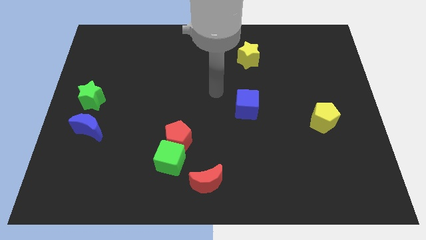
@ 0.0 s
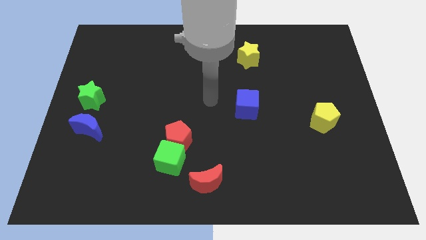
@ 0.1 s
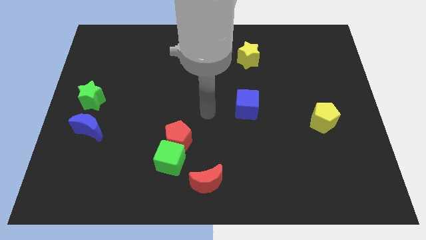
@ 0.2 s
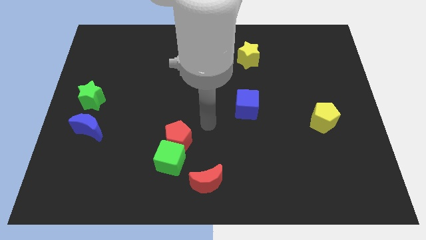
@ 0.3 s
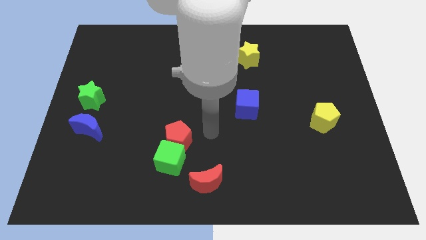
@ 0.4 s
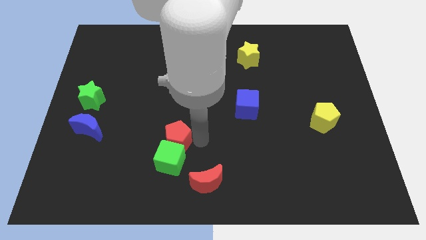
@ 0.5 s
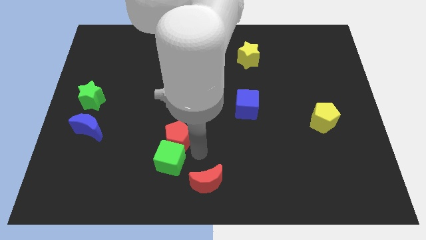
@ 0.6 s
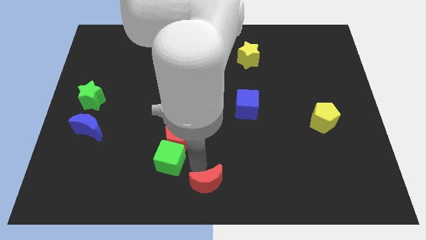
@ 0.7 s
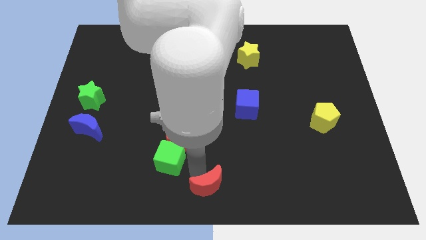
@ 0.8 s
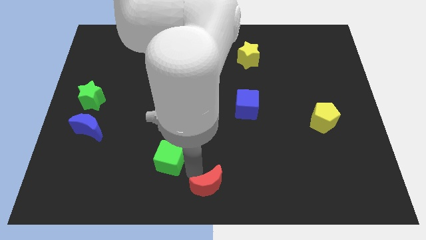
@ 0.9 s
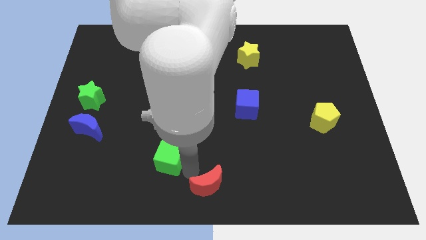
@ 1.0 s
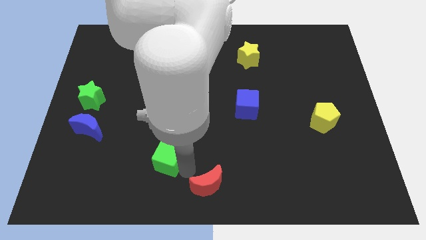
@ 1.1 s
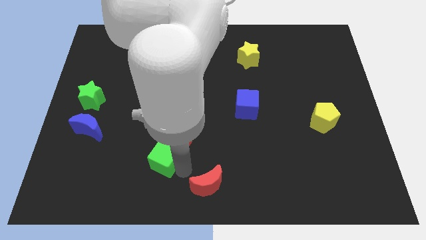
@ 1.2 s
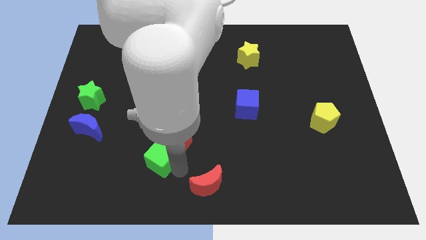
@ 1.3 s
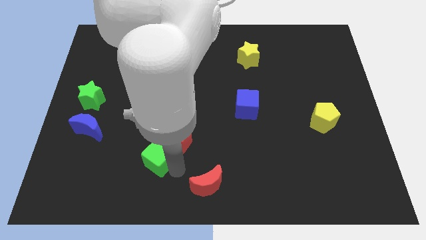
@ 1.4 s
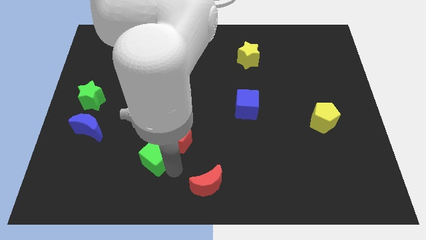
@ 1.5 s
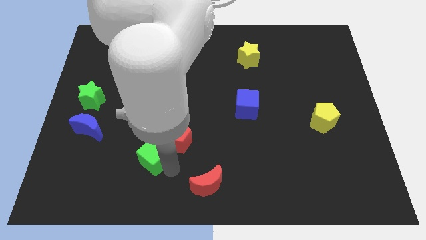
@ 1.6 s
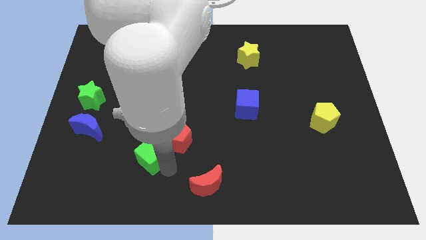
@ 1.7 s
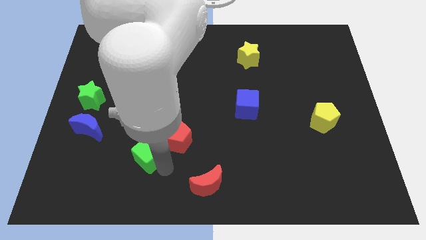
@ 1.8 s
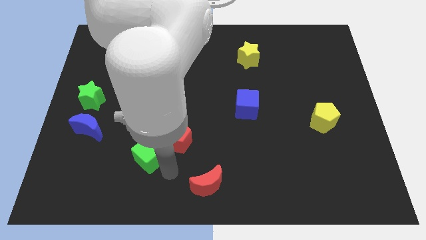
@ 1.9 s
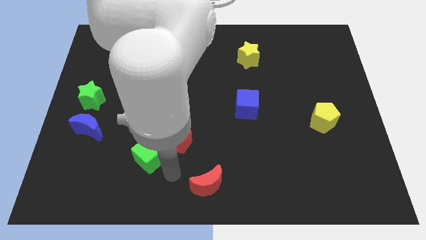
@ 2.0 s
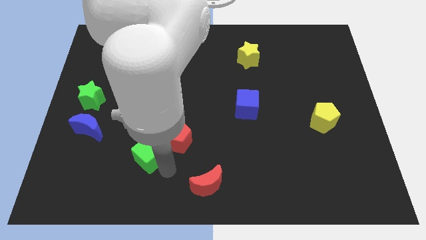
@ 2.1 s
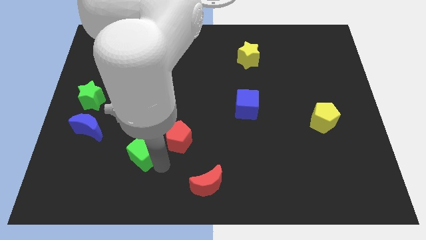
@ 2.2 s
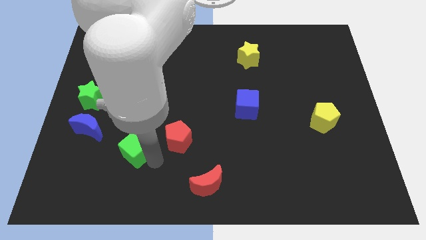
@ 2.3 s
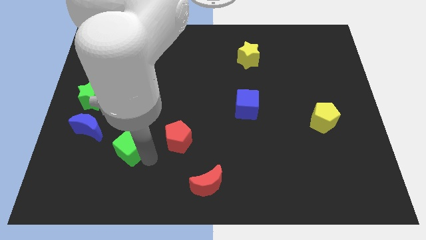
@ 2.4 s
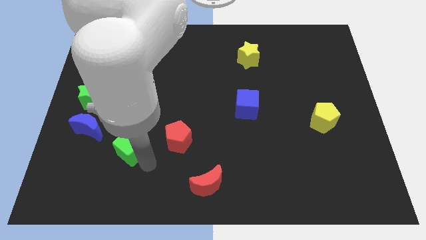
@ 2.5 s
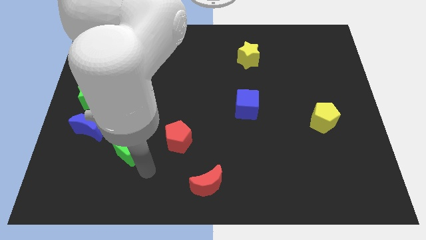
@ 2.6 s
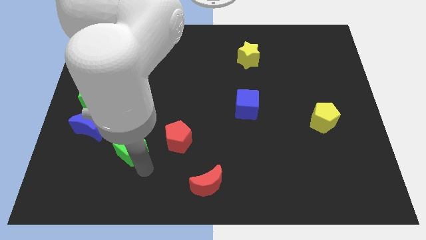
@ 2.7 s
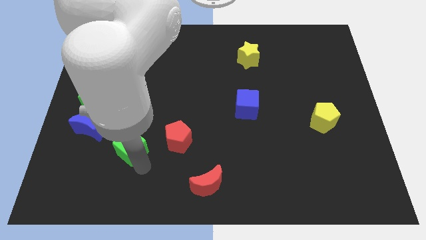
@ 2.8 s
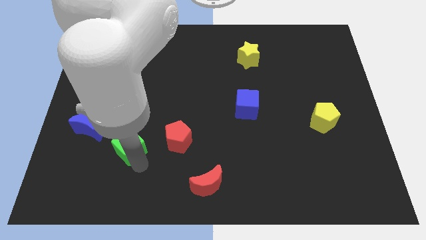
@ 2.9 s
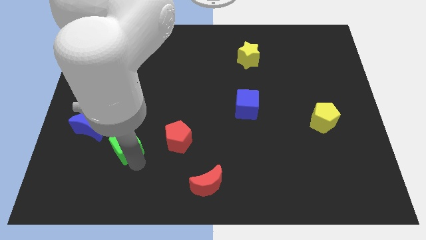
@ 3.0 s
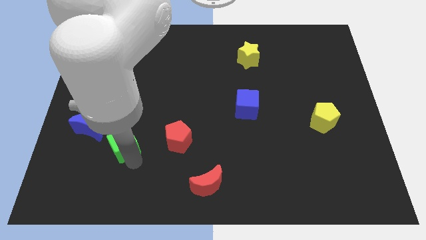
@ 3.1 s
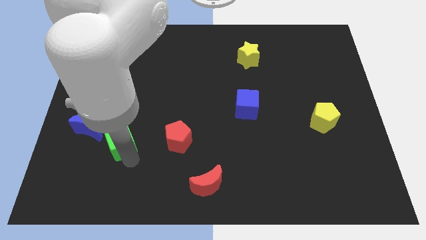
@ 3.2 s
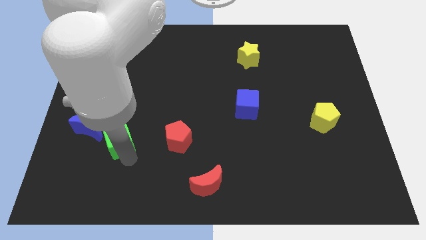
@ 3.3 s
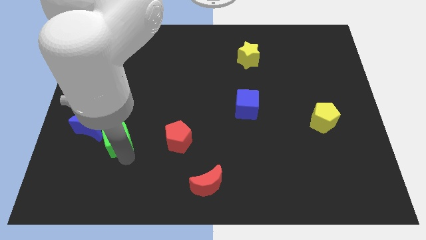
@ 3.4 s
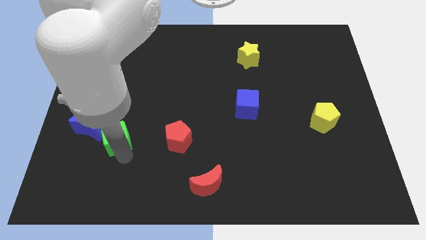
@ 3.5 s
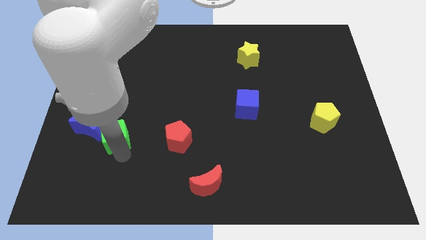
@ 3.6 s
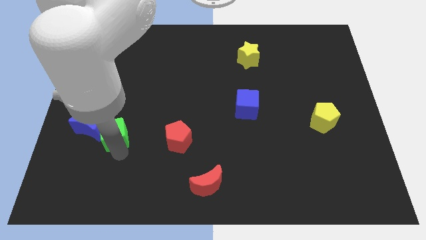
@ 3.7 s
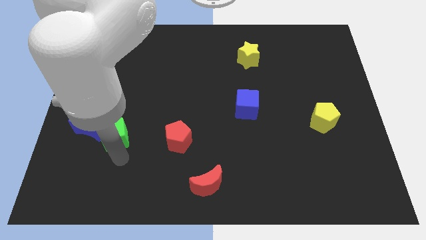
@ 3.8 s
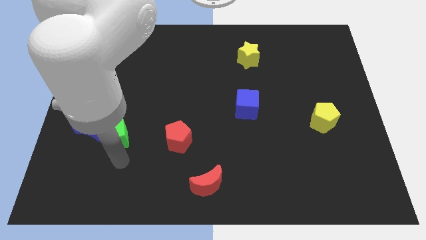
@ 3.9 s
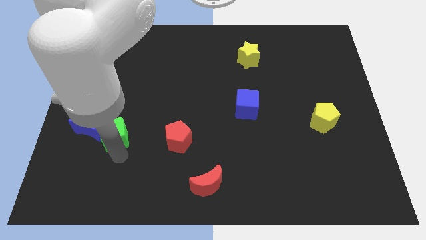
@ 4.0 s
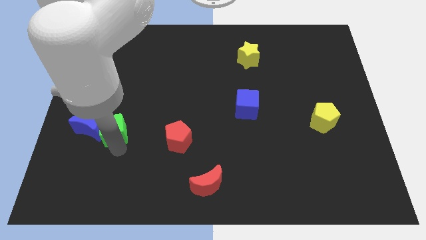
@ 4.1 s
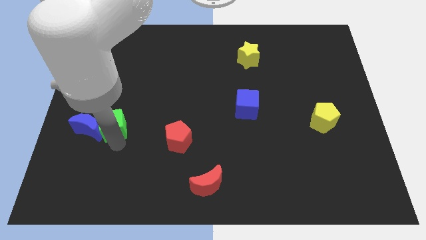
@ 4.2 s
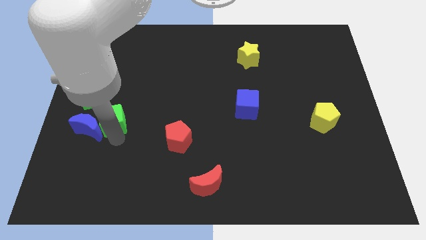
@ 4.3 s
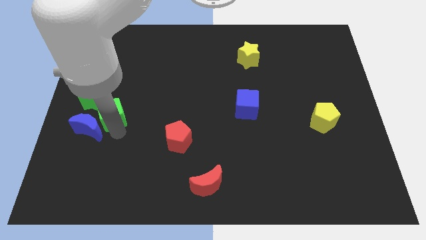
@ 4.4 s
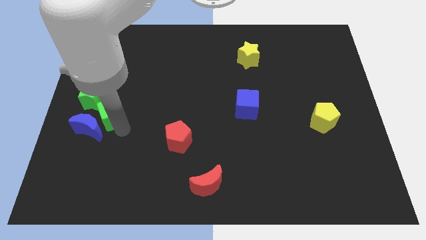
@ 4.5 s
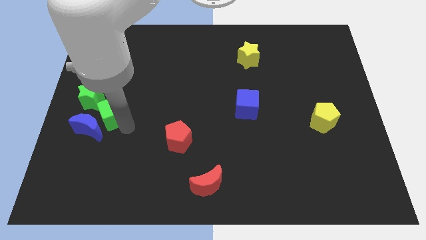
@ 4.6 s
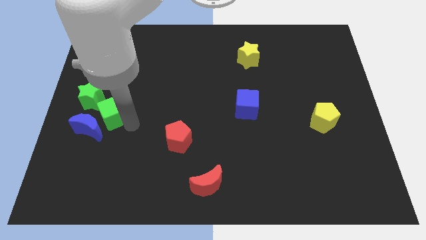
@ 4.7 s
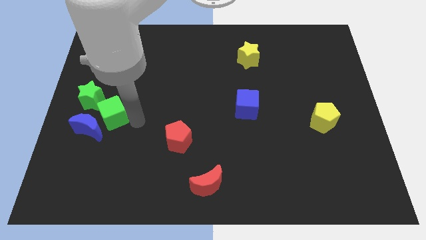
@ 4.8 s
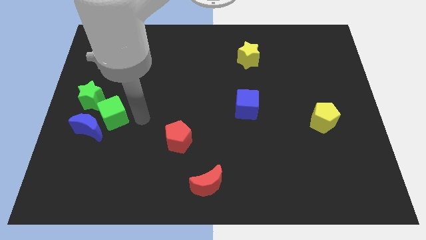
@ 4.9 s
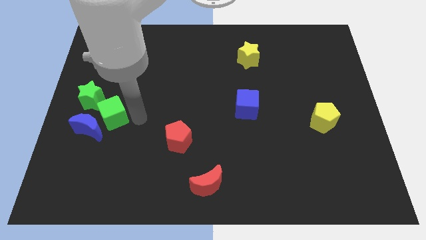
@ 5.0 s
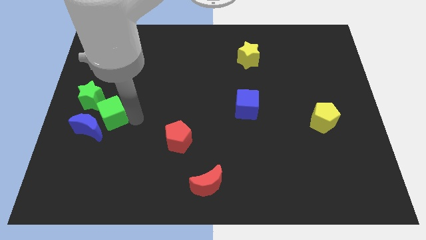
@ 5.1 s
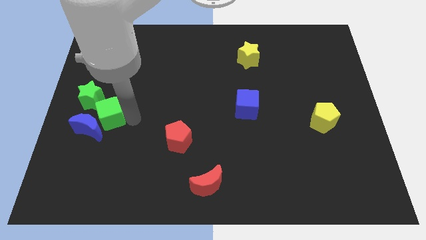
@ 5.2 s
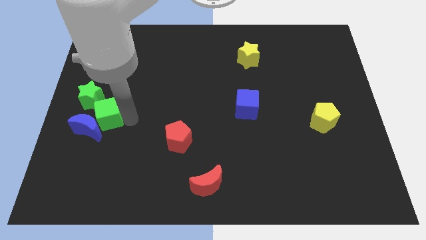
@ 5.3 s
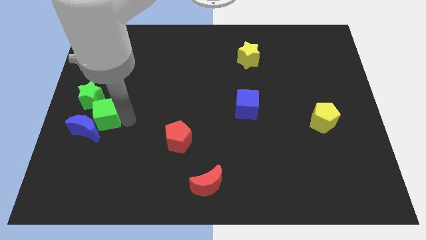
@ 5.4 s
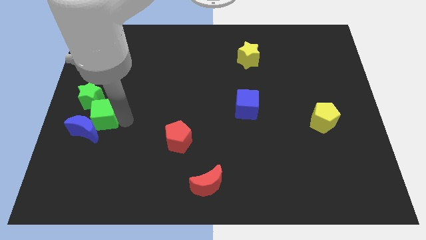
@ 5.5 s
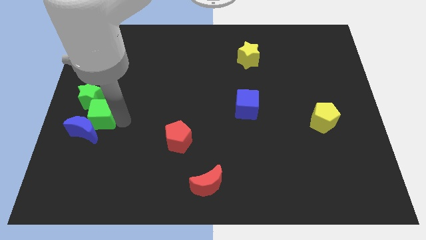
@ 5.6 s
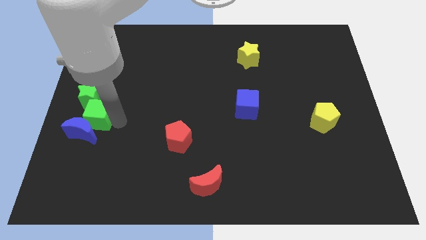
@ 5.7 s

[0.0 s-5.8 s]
put the green cube to the left side

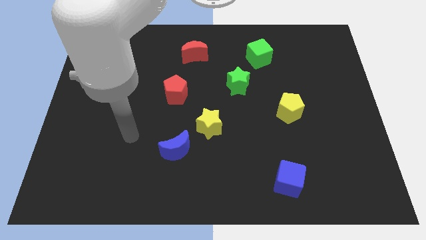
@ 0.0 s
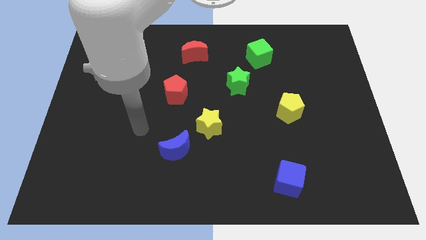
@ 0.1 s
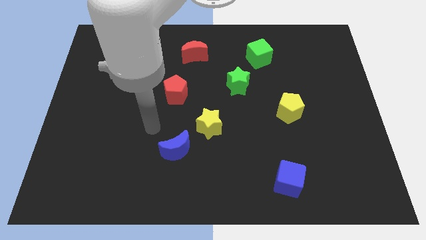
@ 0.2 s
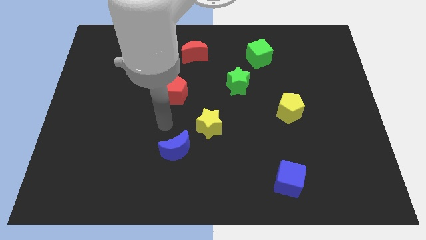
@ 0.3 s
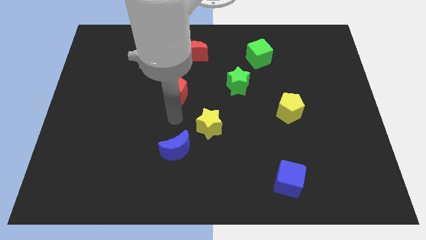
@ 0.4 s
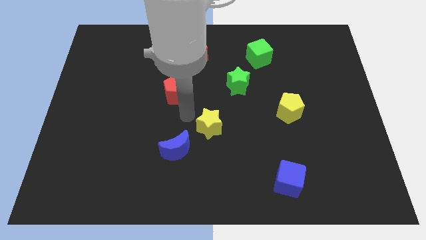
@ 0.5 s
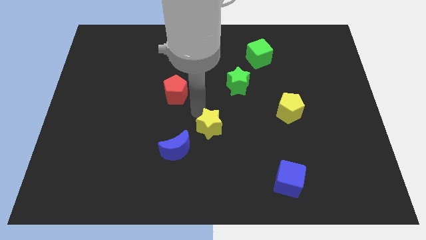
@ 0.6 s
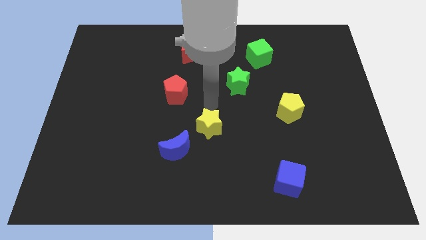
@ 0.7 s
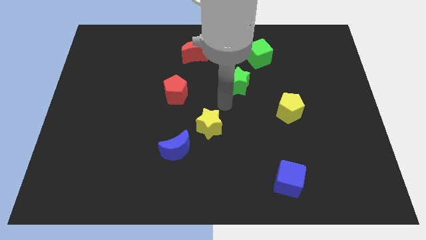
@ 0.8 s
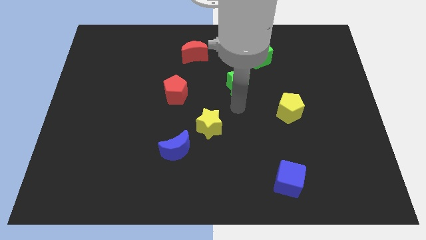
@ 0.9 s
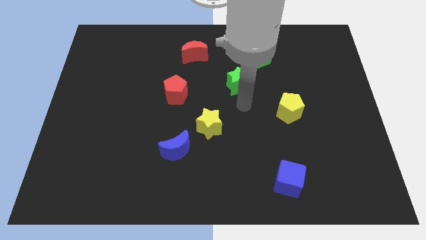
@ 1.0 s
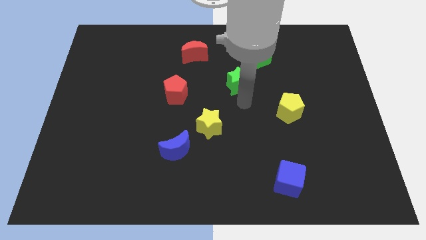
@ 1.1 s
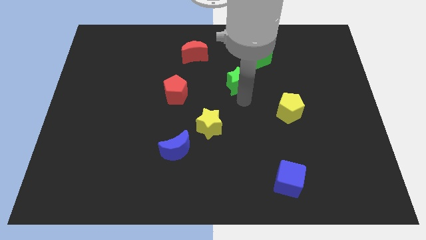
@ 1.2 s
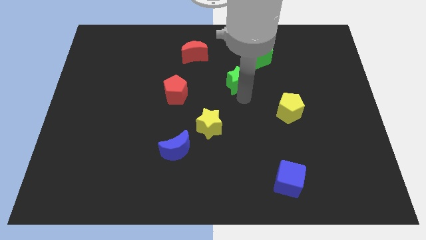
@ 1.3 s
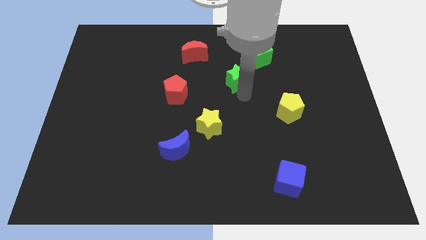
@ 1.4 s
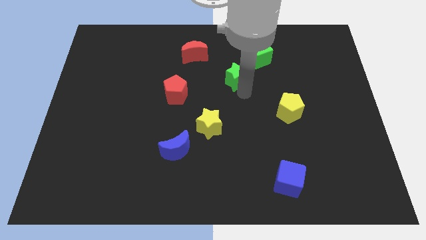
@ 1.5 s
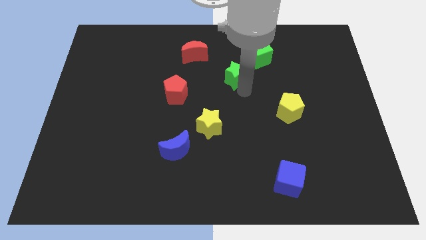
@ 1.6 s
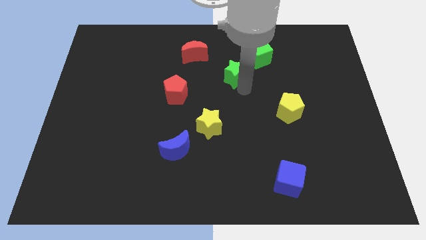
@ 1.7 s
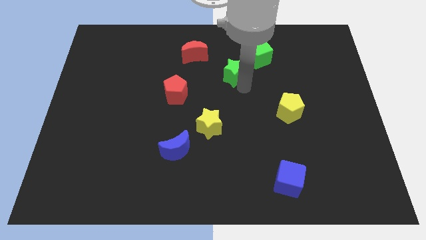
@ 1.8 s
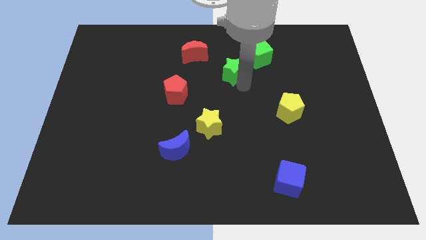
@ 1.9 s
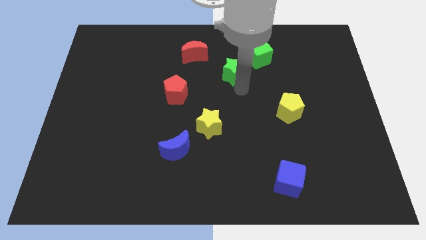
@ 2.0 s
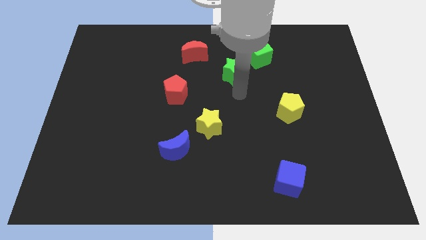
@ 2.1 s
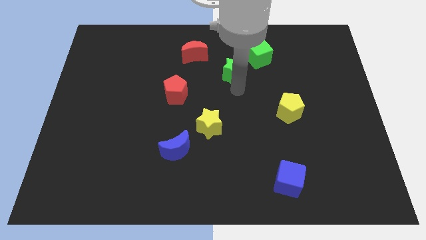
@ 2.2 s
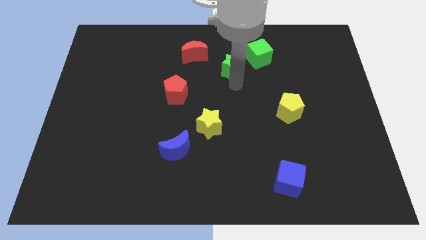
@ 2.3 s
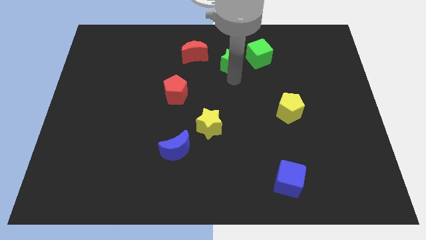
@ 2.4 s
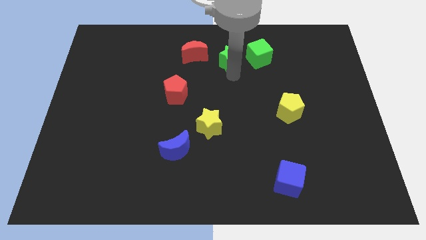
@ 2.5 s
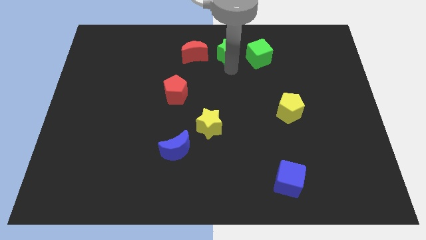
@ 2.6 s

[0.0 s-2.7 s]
put the green star to the top
